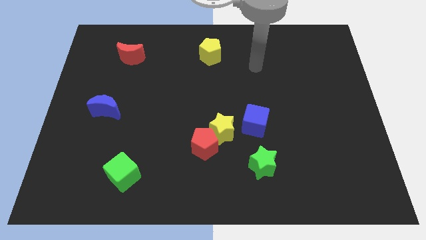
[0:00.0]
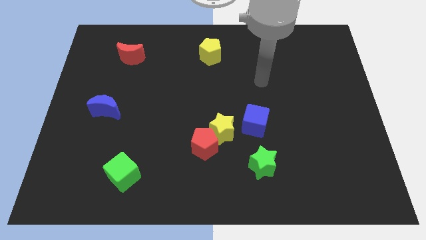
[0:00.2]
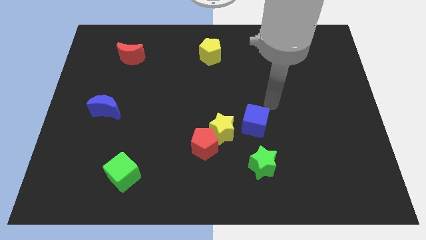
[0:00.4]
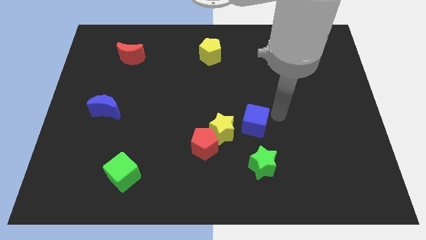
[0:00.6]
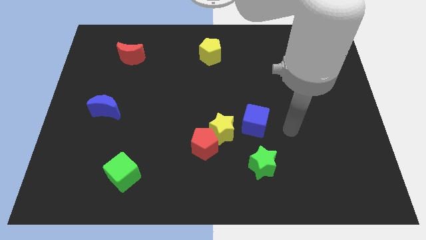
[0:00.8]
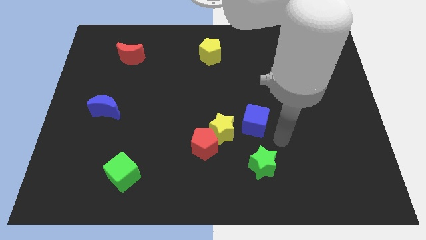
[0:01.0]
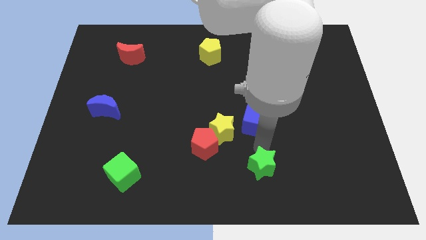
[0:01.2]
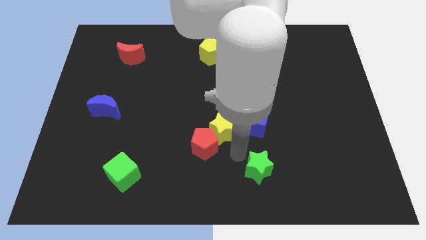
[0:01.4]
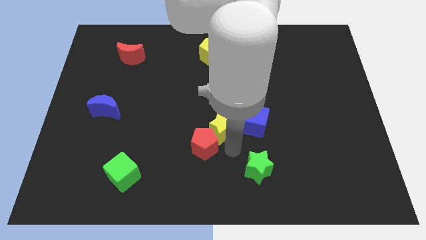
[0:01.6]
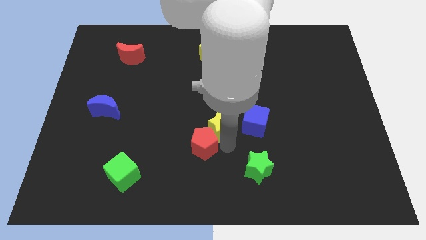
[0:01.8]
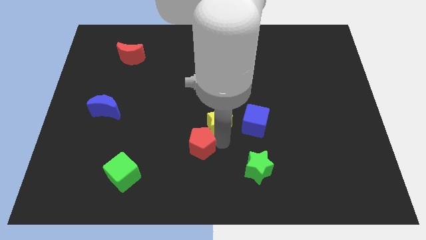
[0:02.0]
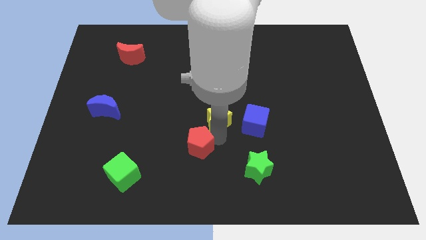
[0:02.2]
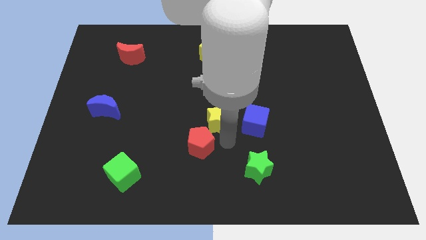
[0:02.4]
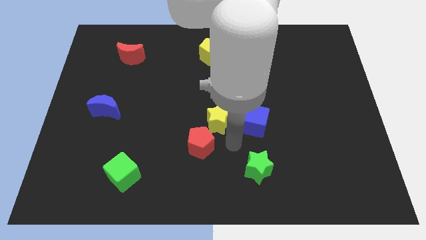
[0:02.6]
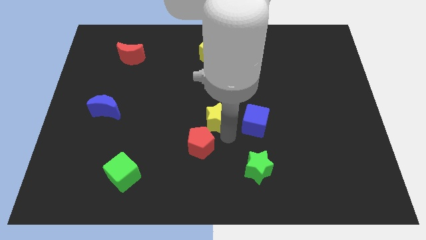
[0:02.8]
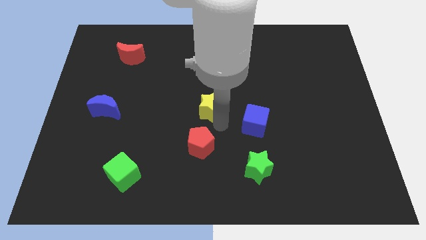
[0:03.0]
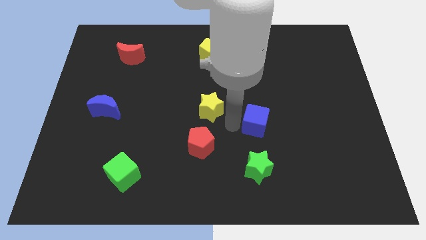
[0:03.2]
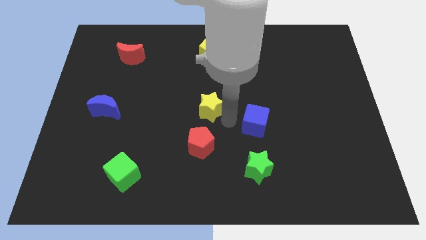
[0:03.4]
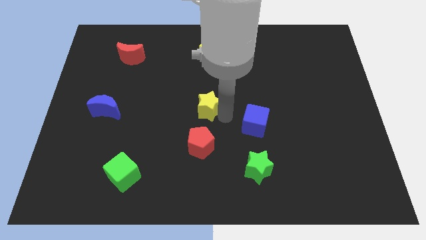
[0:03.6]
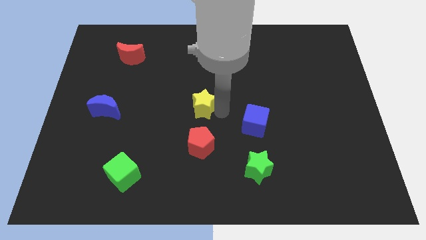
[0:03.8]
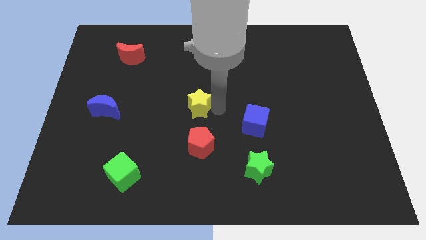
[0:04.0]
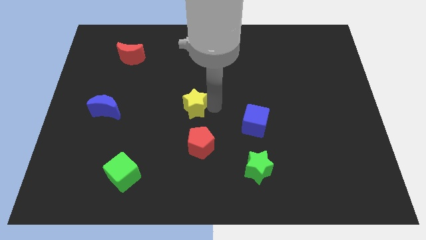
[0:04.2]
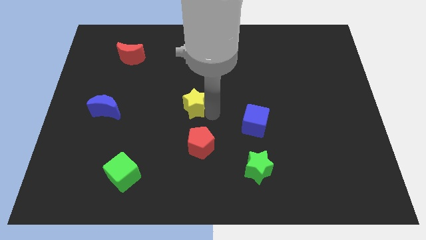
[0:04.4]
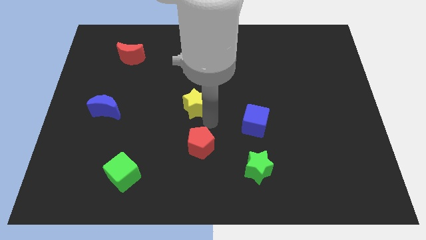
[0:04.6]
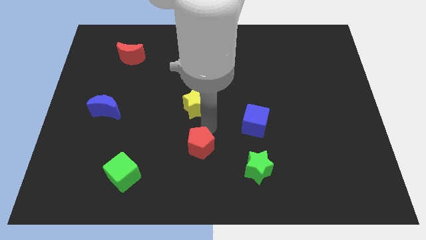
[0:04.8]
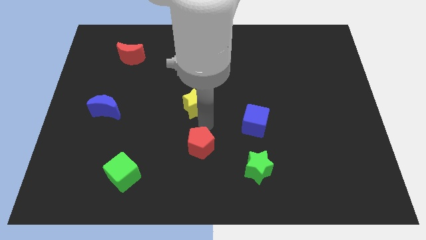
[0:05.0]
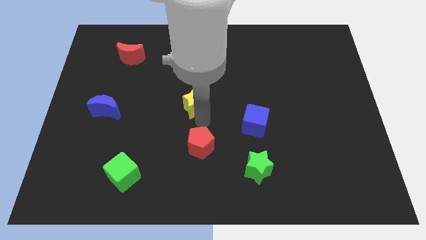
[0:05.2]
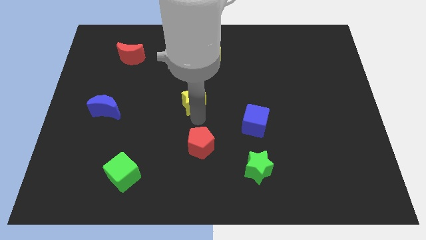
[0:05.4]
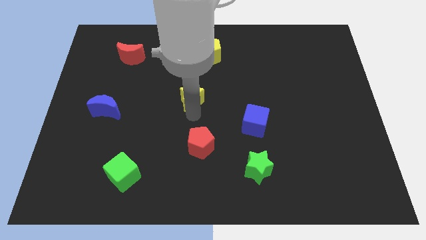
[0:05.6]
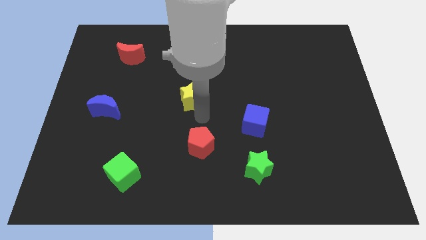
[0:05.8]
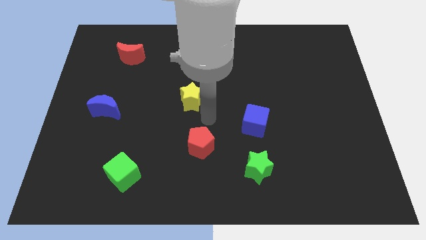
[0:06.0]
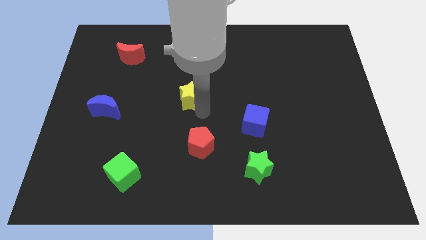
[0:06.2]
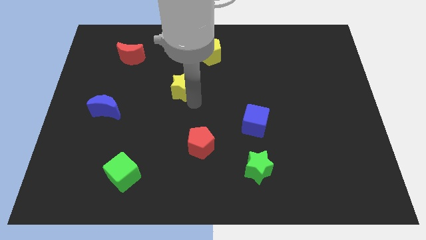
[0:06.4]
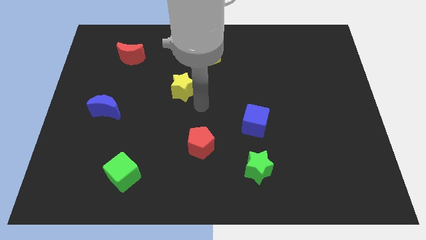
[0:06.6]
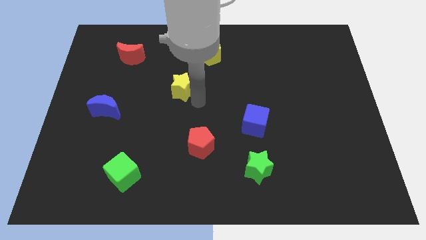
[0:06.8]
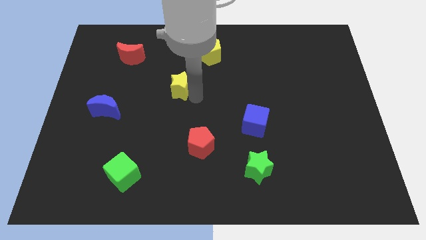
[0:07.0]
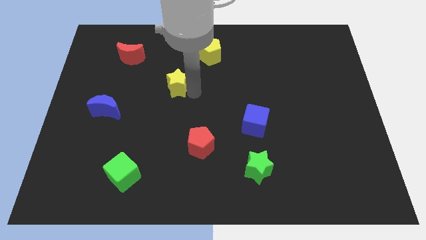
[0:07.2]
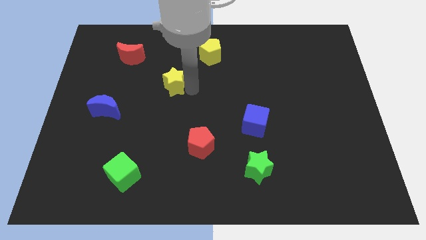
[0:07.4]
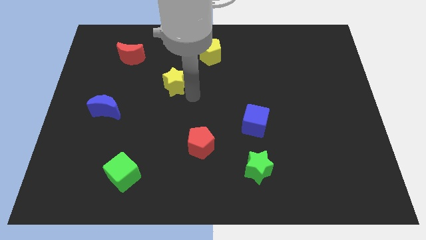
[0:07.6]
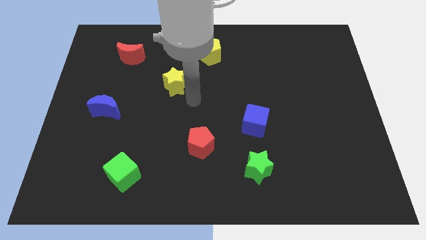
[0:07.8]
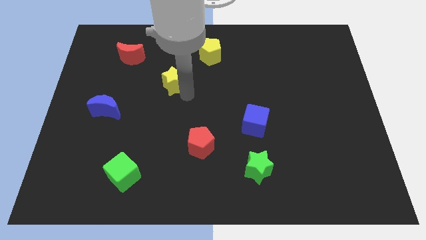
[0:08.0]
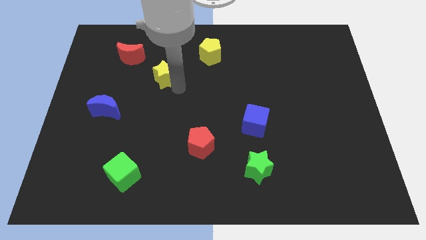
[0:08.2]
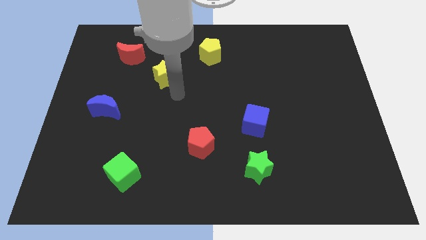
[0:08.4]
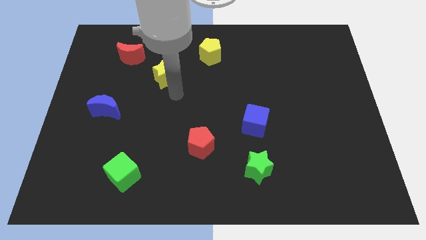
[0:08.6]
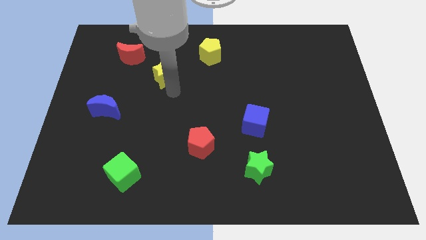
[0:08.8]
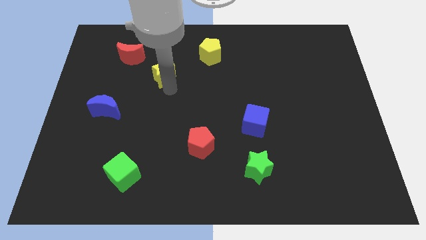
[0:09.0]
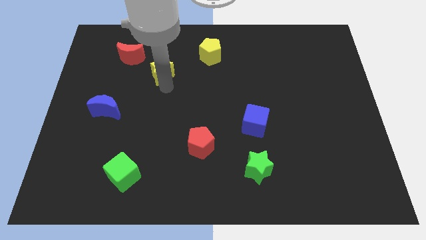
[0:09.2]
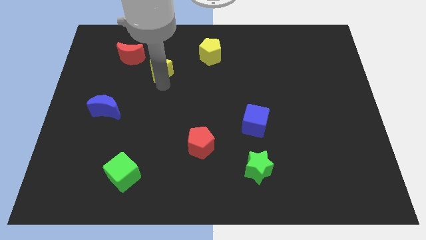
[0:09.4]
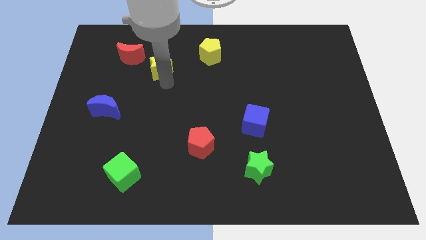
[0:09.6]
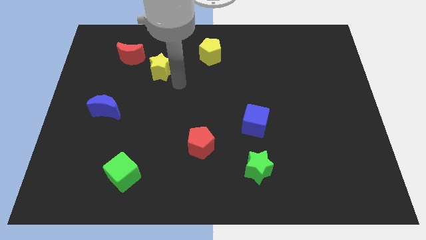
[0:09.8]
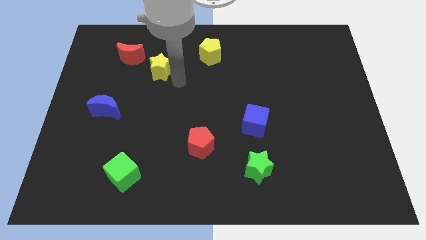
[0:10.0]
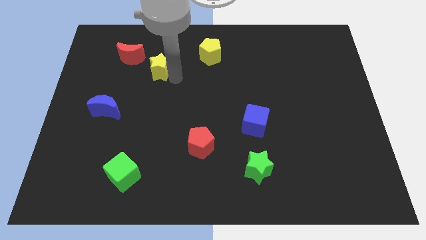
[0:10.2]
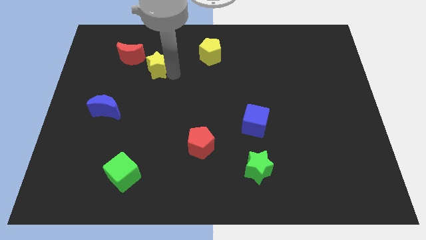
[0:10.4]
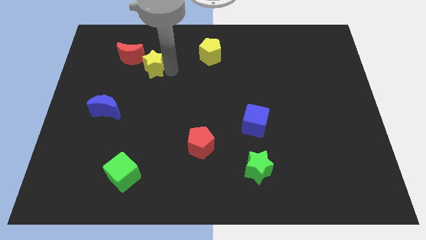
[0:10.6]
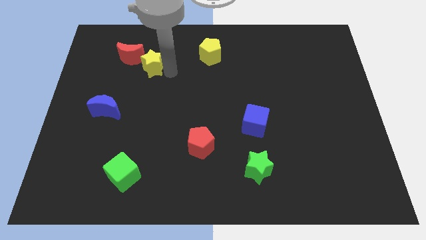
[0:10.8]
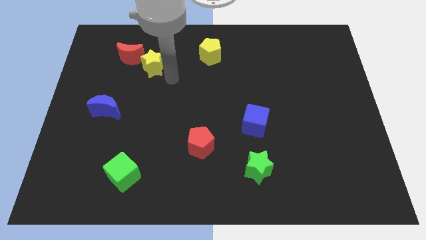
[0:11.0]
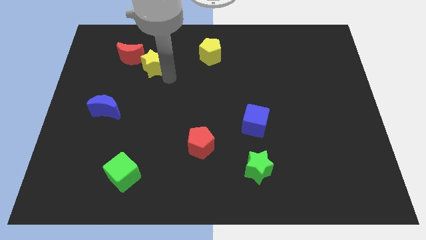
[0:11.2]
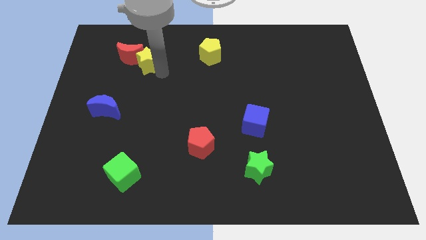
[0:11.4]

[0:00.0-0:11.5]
push the yellow star towards the red moon
